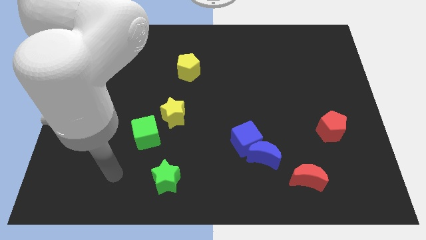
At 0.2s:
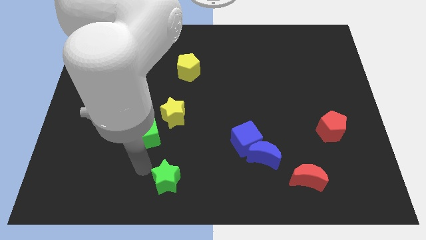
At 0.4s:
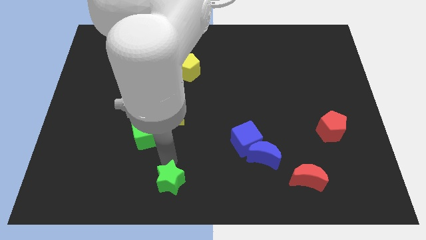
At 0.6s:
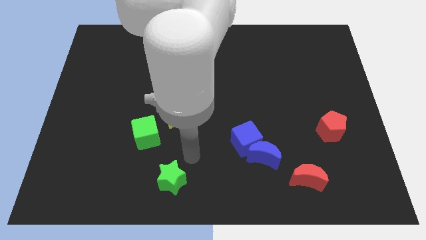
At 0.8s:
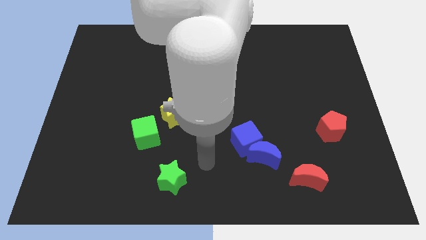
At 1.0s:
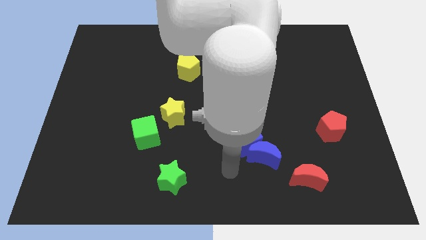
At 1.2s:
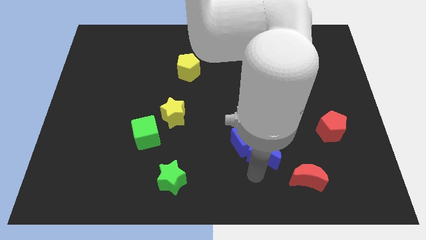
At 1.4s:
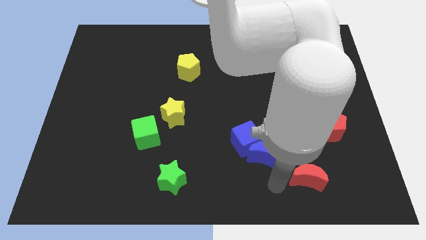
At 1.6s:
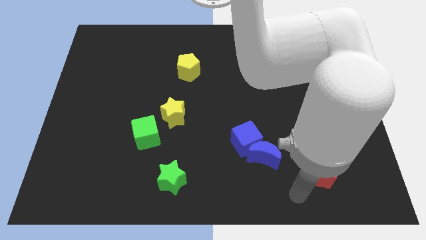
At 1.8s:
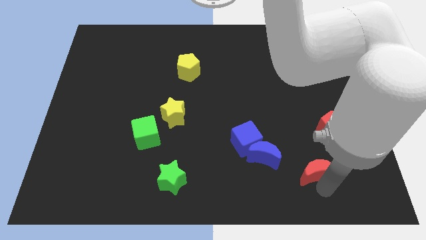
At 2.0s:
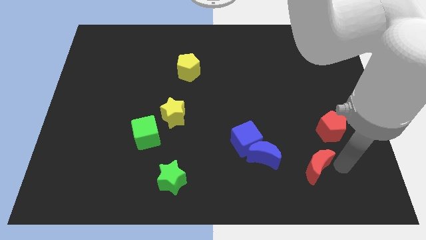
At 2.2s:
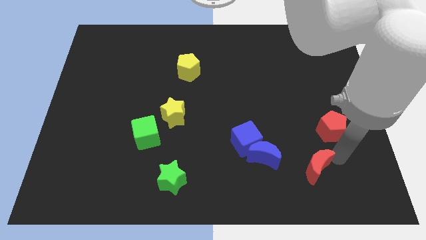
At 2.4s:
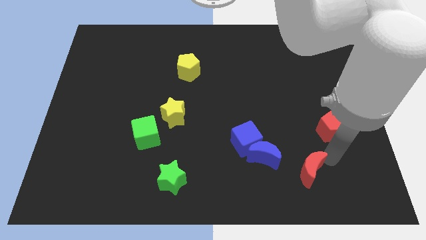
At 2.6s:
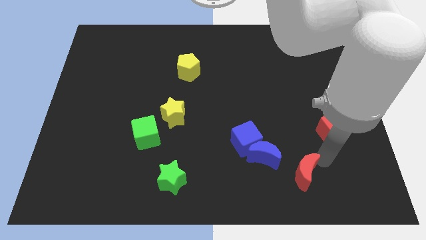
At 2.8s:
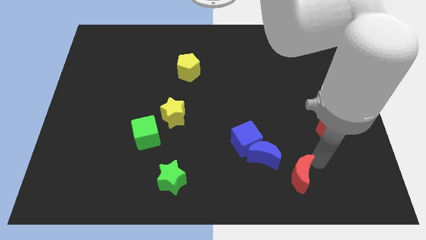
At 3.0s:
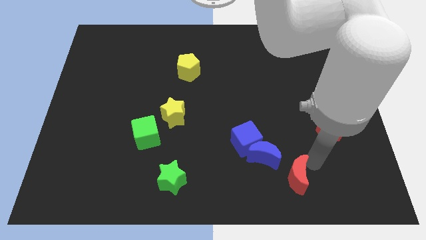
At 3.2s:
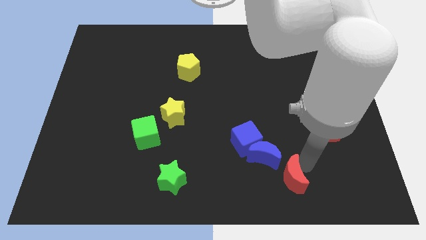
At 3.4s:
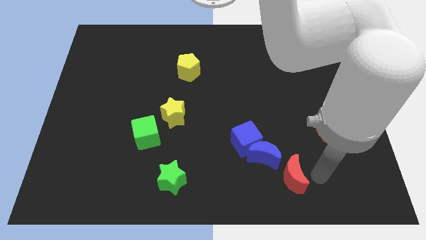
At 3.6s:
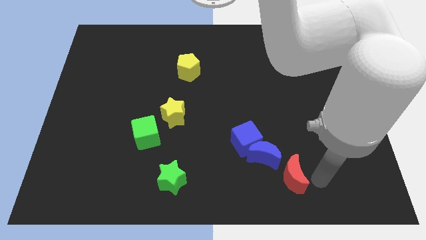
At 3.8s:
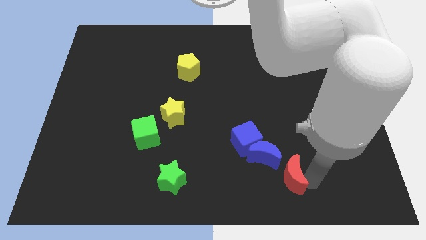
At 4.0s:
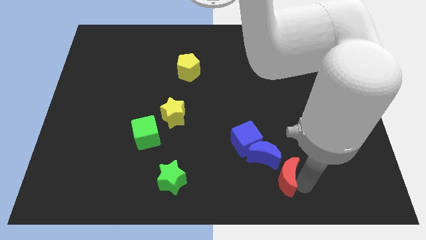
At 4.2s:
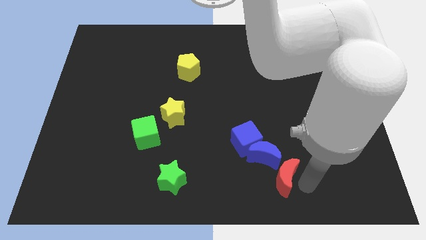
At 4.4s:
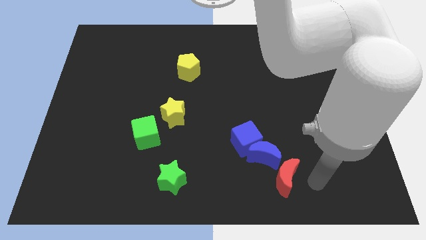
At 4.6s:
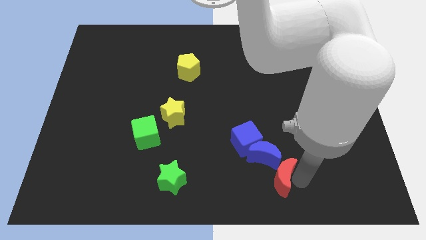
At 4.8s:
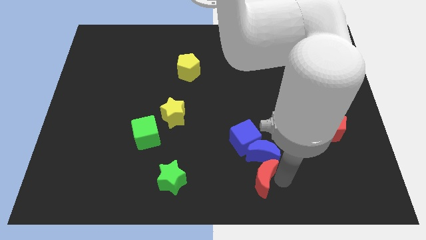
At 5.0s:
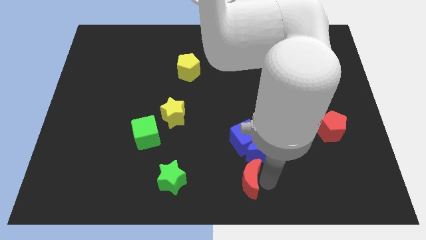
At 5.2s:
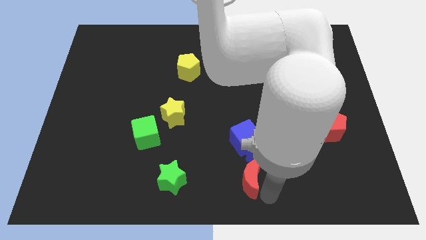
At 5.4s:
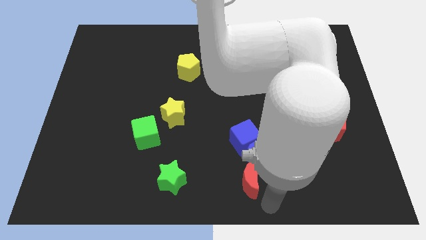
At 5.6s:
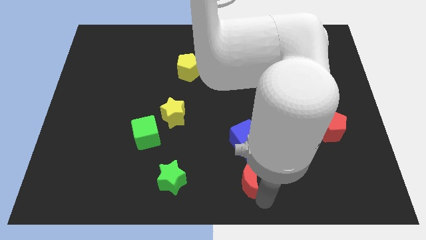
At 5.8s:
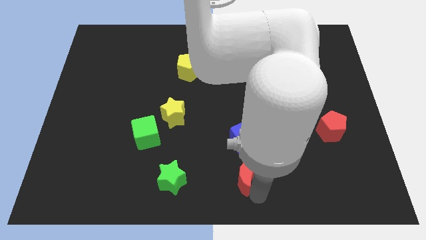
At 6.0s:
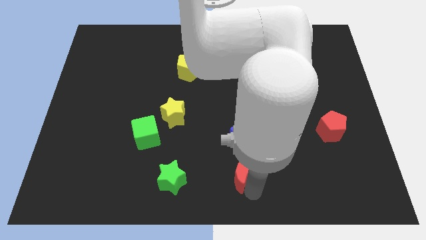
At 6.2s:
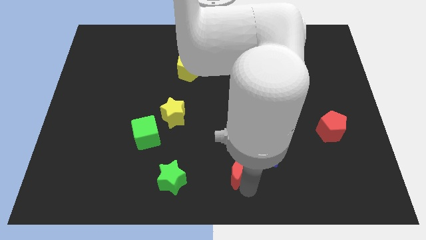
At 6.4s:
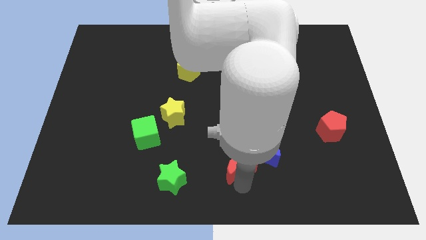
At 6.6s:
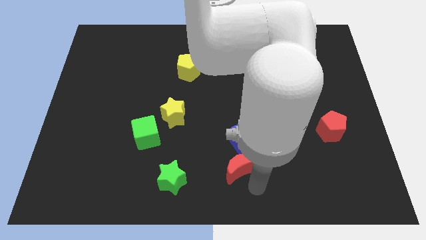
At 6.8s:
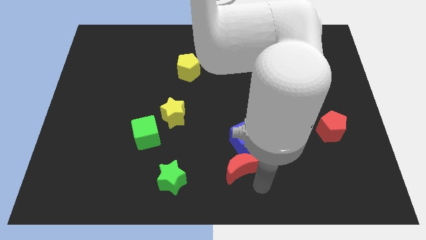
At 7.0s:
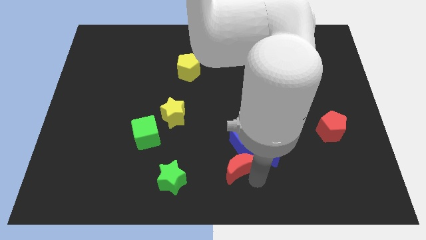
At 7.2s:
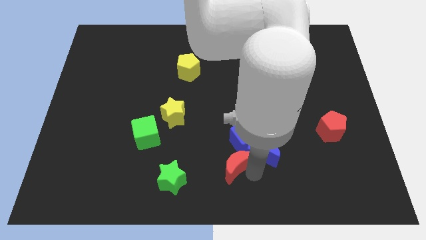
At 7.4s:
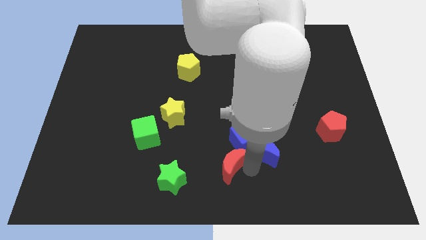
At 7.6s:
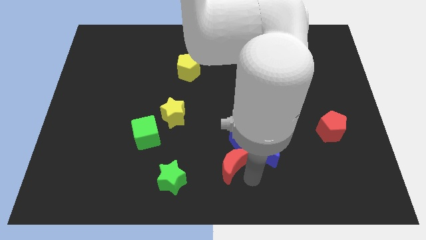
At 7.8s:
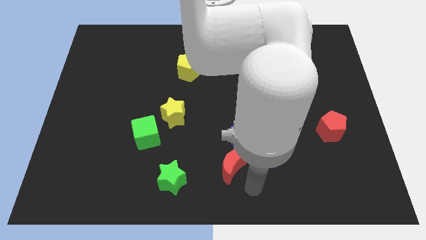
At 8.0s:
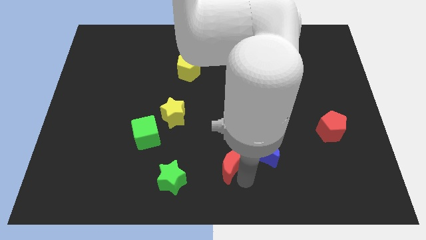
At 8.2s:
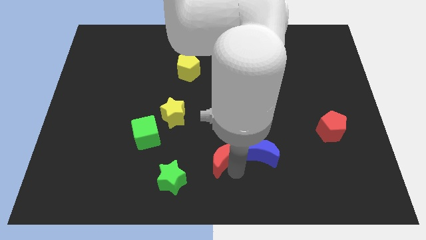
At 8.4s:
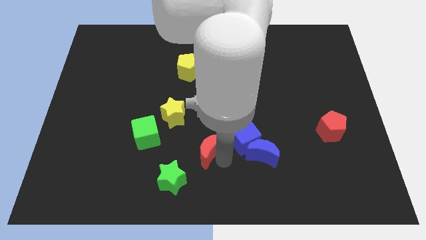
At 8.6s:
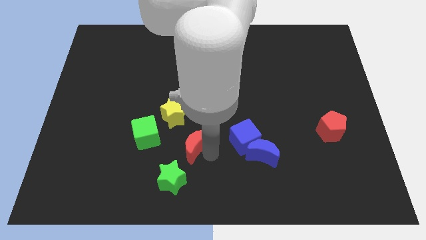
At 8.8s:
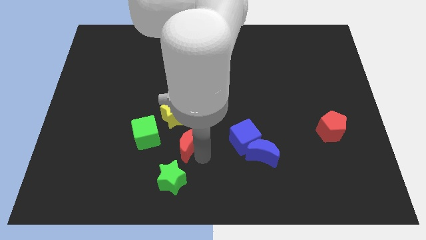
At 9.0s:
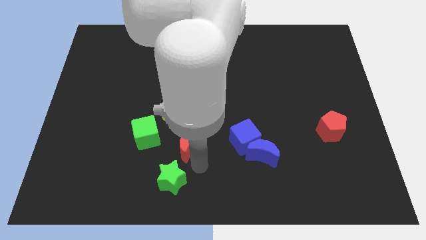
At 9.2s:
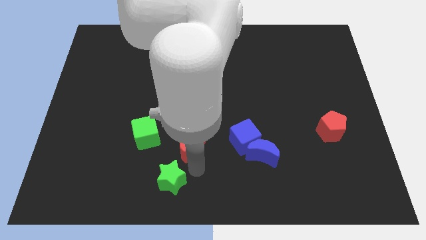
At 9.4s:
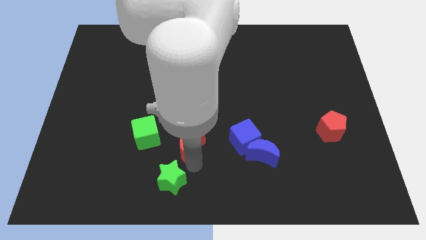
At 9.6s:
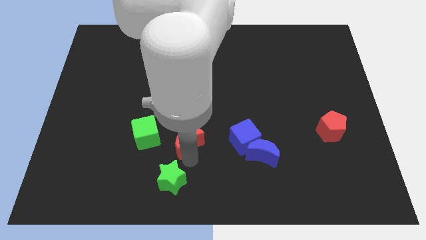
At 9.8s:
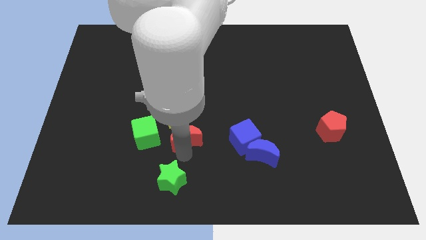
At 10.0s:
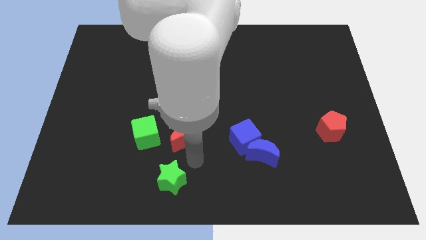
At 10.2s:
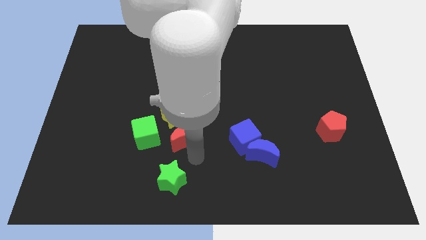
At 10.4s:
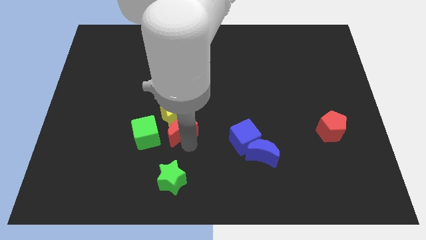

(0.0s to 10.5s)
slide the red moon next to the yellow star

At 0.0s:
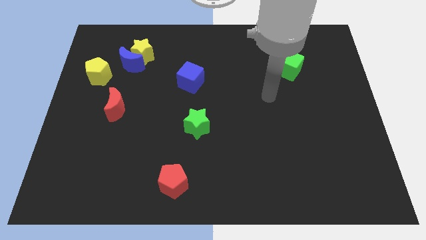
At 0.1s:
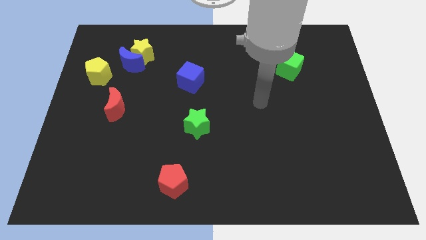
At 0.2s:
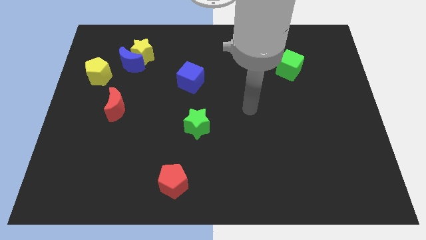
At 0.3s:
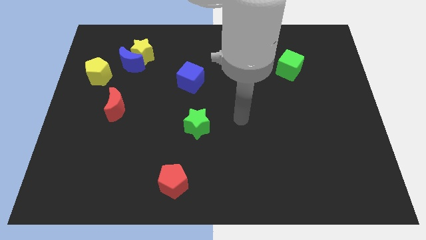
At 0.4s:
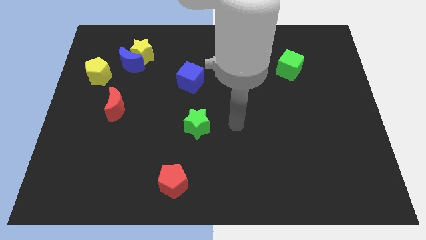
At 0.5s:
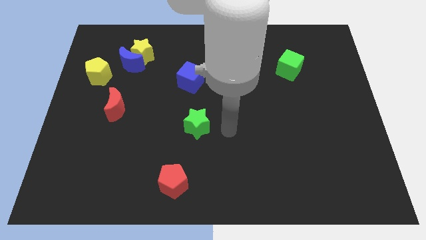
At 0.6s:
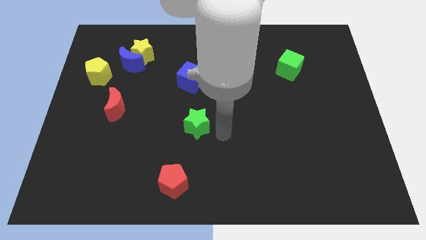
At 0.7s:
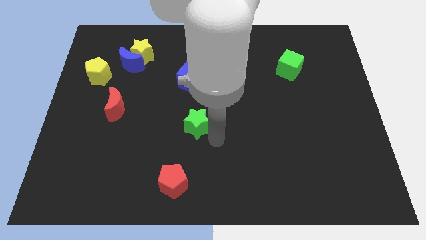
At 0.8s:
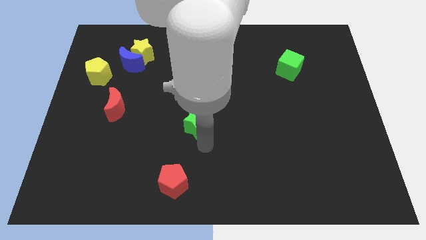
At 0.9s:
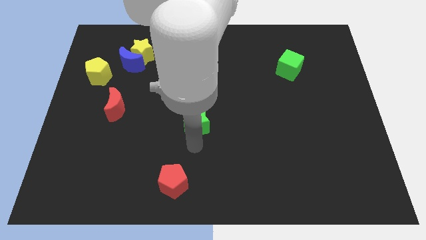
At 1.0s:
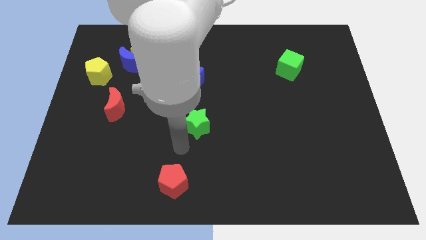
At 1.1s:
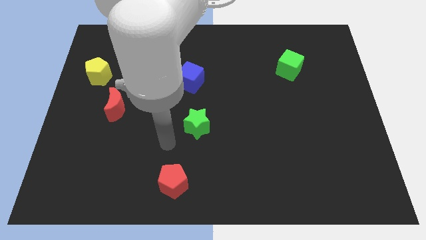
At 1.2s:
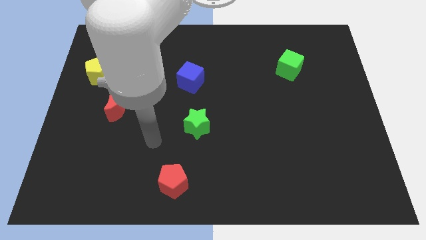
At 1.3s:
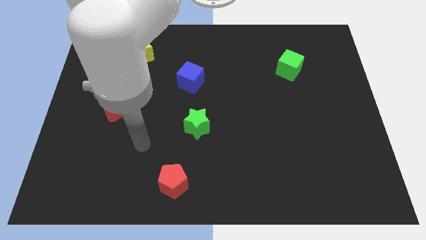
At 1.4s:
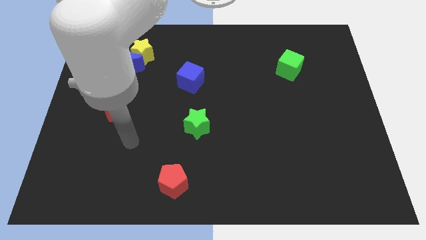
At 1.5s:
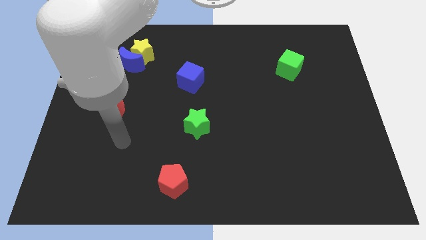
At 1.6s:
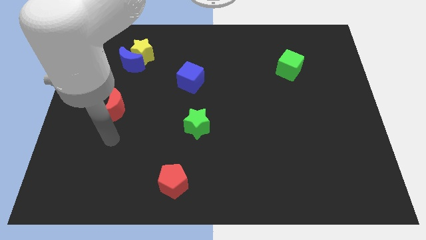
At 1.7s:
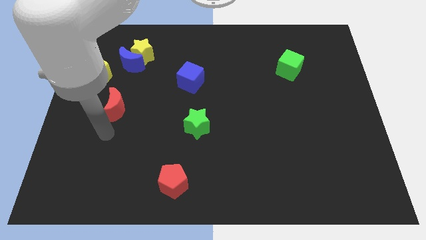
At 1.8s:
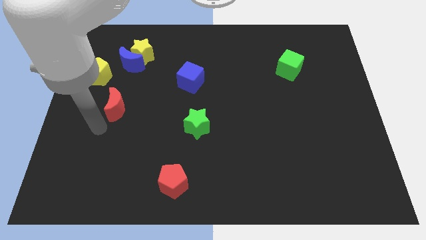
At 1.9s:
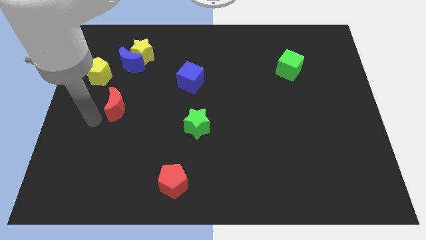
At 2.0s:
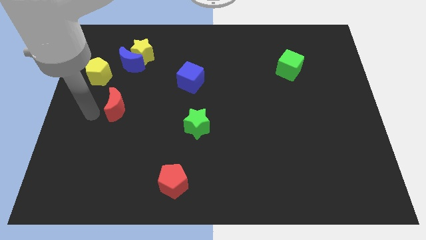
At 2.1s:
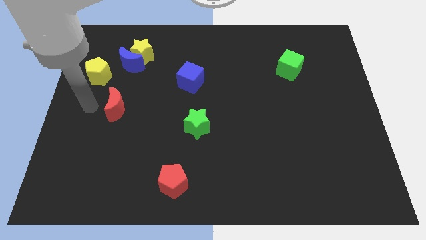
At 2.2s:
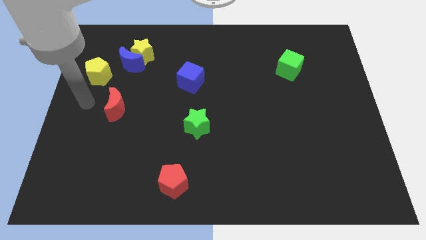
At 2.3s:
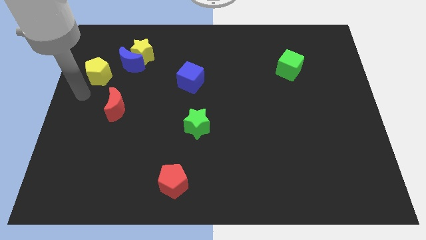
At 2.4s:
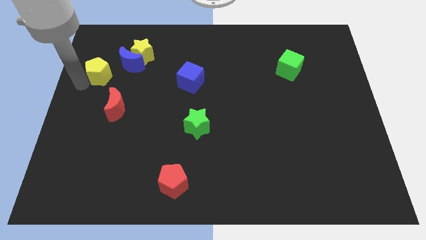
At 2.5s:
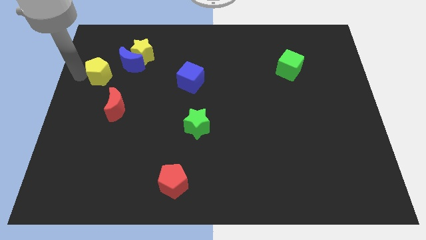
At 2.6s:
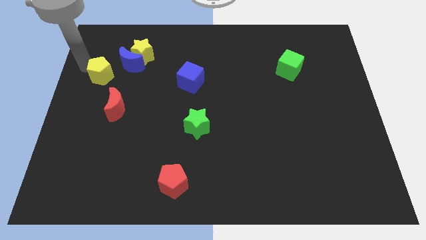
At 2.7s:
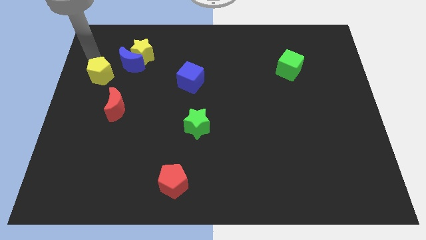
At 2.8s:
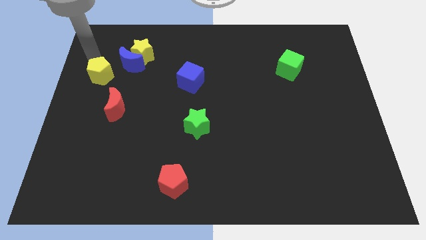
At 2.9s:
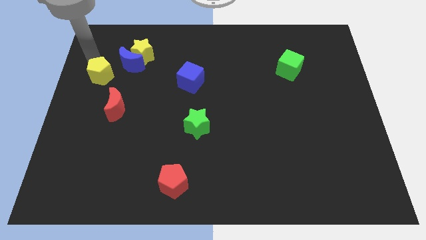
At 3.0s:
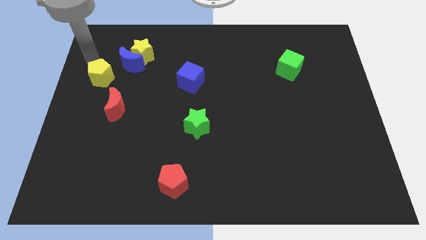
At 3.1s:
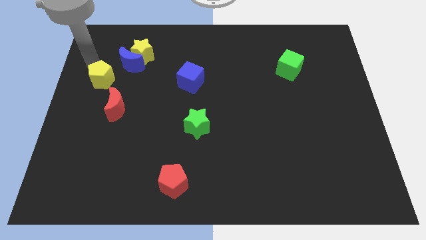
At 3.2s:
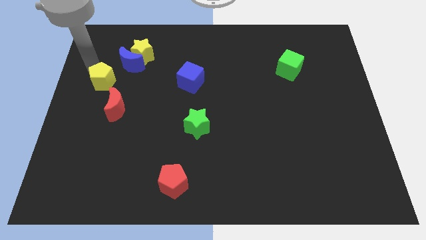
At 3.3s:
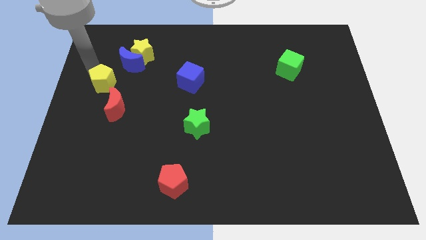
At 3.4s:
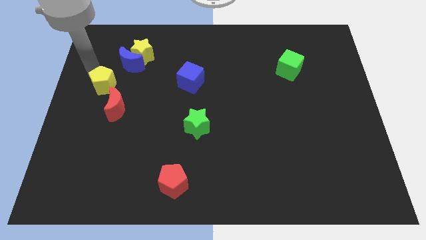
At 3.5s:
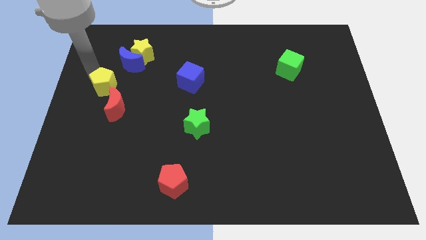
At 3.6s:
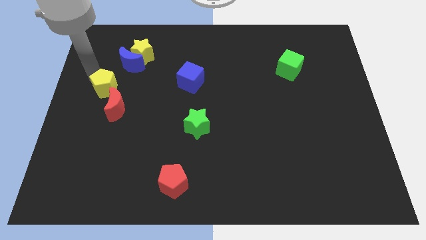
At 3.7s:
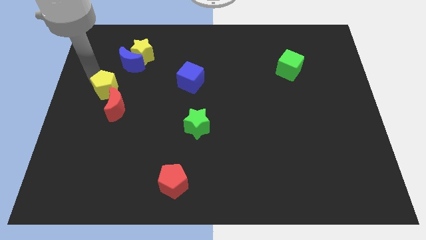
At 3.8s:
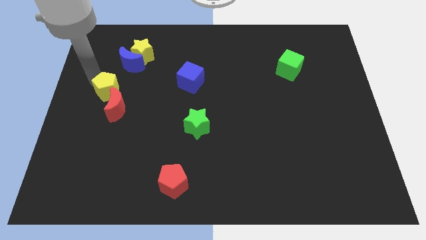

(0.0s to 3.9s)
move the yellow pentagon towards the red moon
